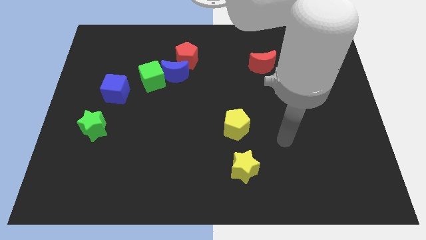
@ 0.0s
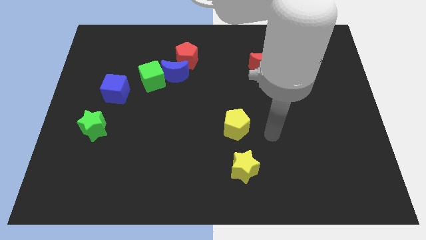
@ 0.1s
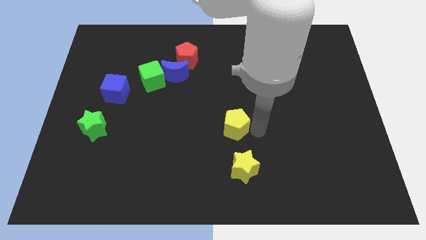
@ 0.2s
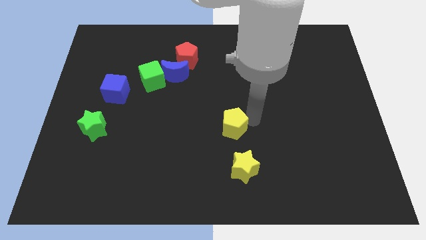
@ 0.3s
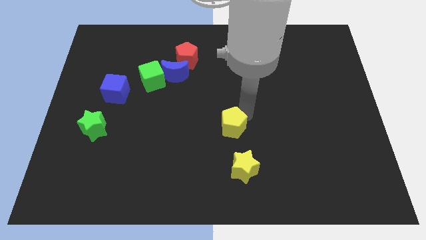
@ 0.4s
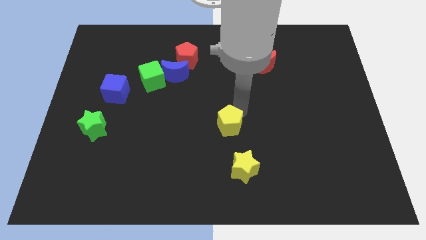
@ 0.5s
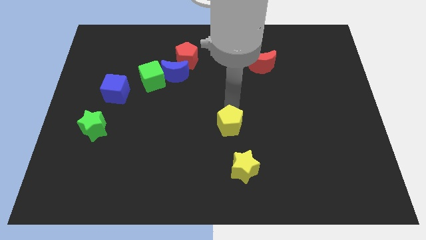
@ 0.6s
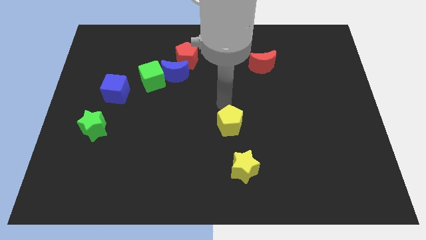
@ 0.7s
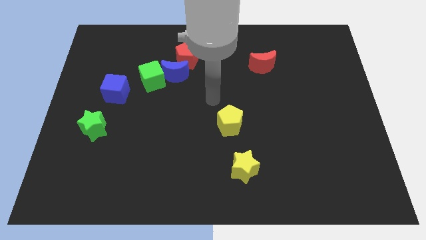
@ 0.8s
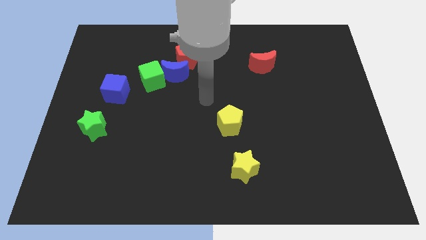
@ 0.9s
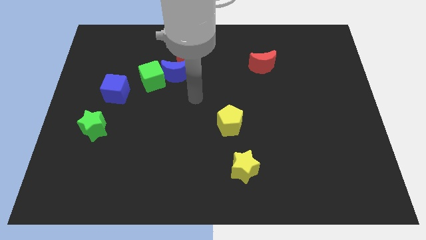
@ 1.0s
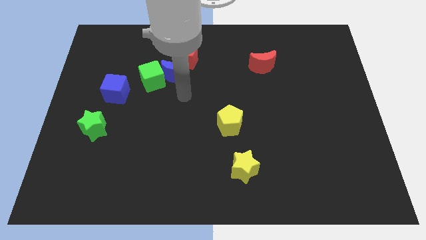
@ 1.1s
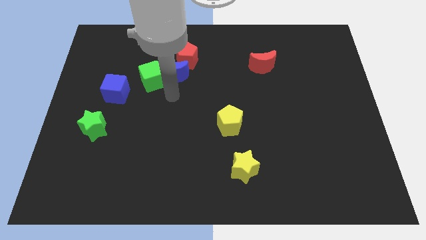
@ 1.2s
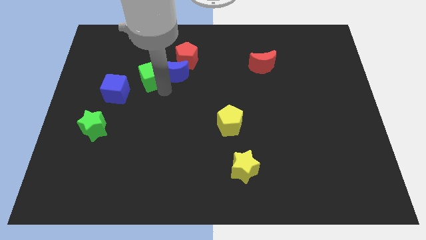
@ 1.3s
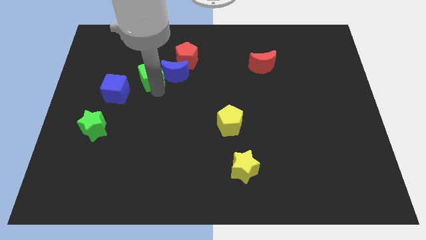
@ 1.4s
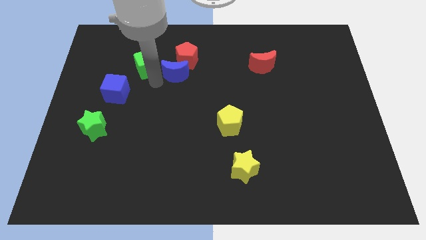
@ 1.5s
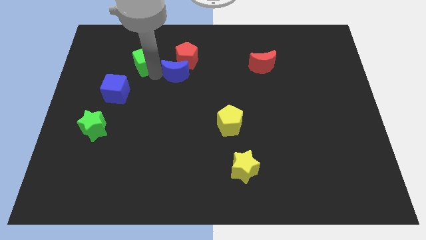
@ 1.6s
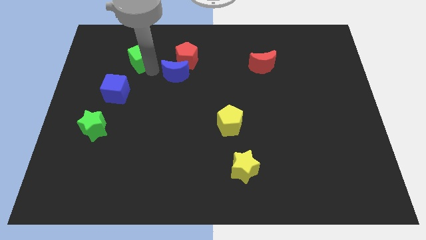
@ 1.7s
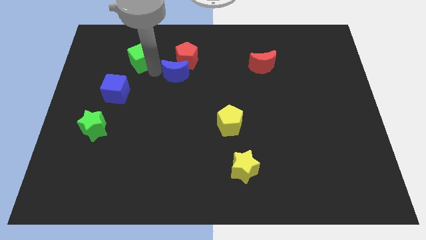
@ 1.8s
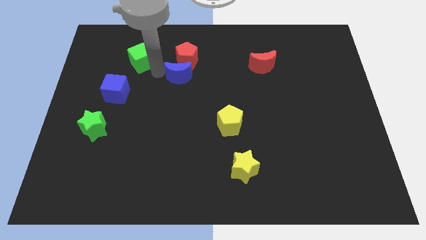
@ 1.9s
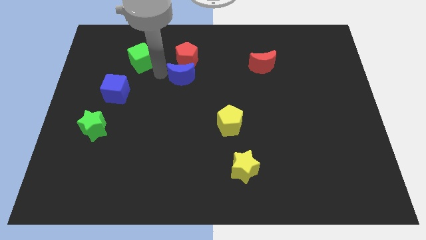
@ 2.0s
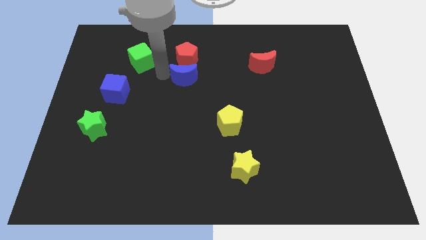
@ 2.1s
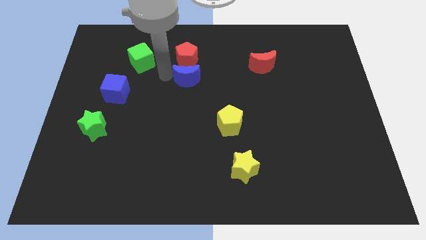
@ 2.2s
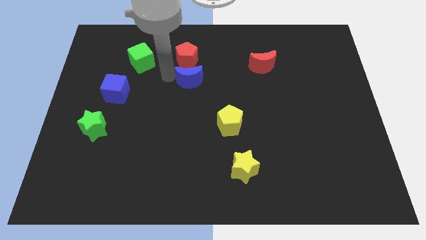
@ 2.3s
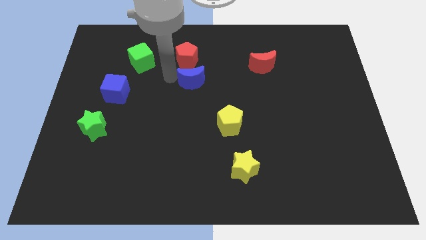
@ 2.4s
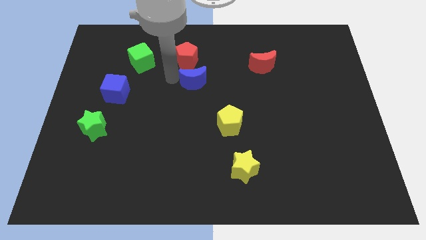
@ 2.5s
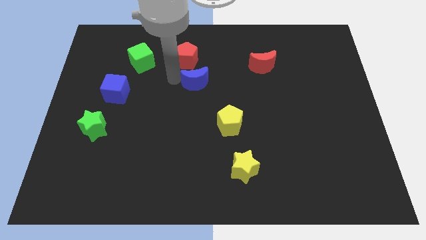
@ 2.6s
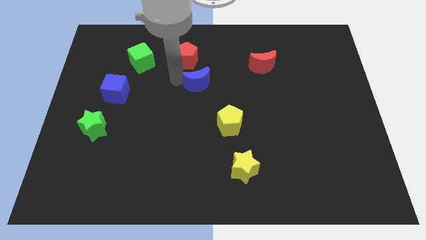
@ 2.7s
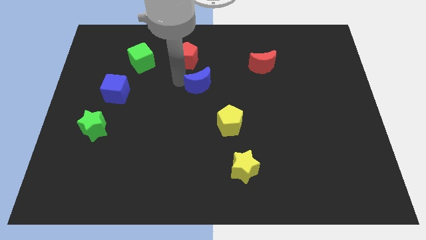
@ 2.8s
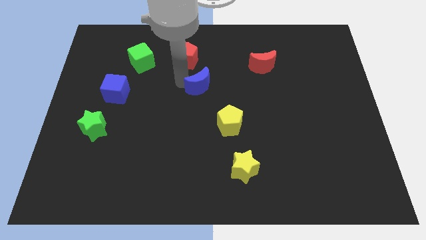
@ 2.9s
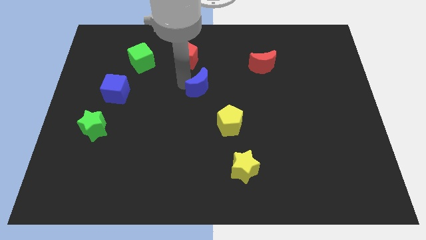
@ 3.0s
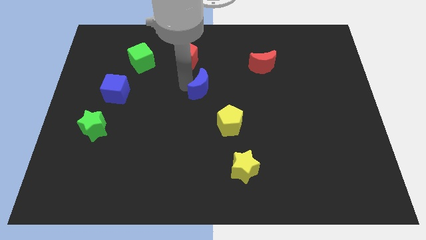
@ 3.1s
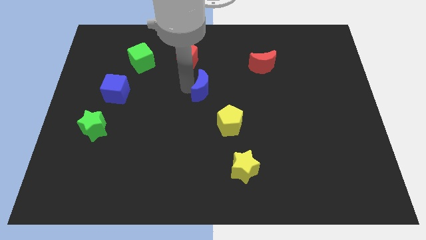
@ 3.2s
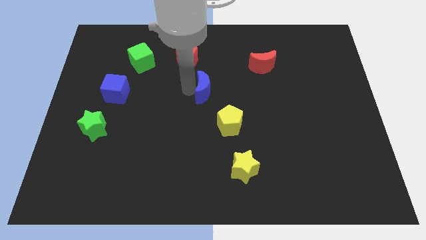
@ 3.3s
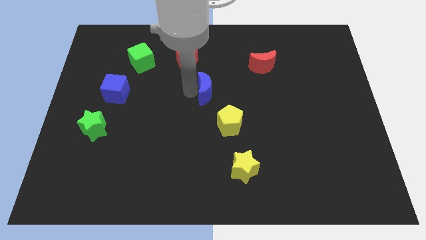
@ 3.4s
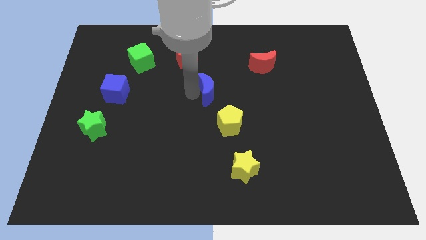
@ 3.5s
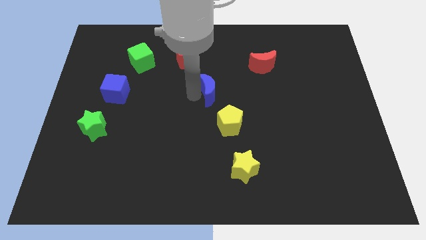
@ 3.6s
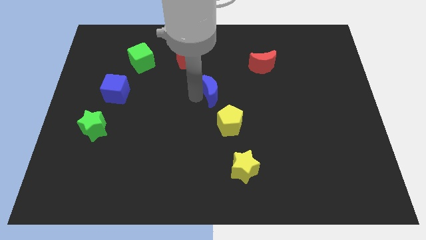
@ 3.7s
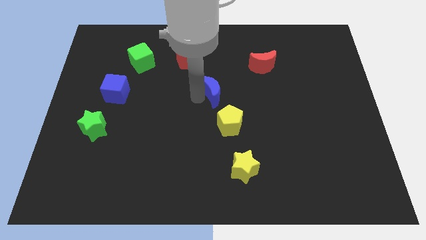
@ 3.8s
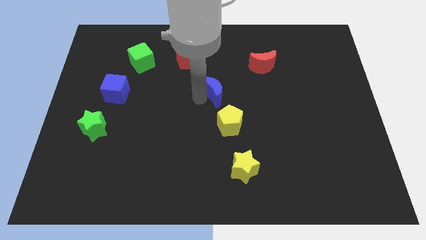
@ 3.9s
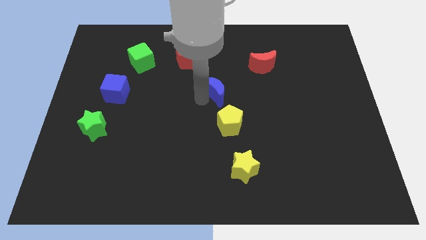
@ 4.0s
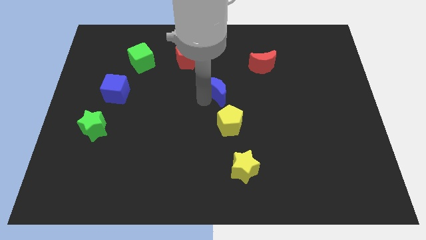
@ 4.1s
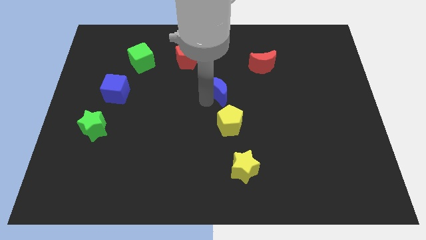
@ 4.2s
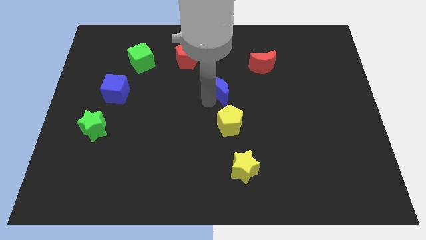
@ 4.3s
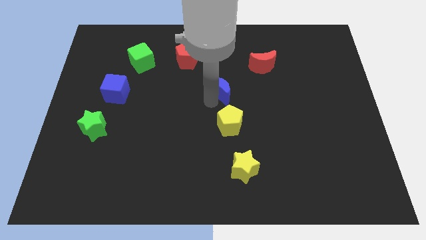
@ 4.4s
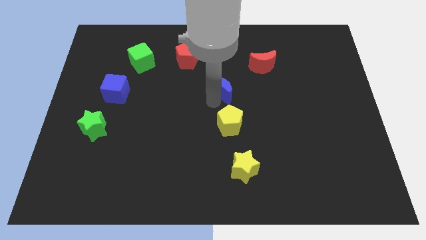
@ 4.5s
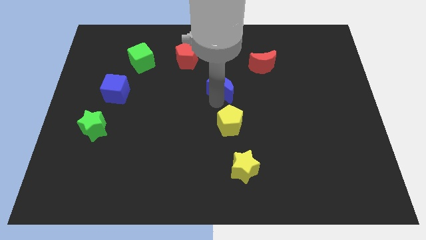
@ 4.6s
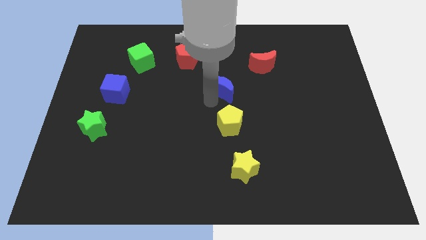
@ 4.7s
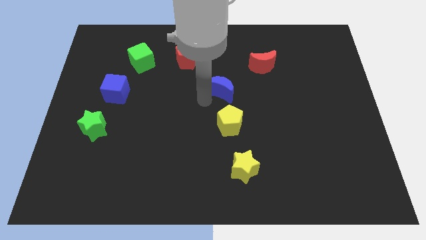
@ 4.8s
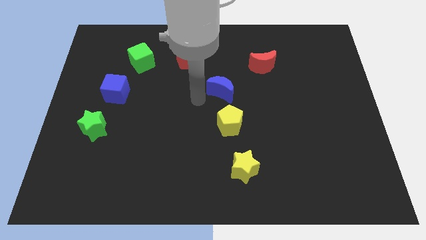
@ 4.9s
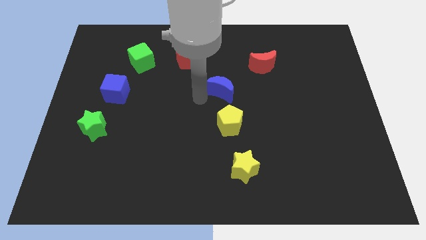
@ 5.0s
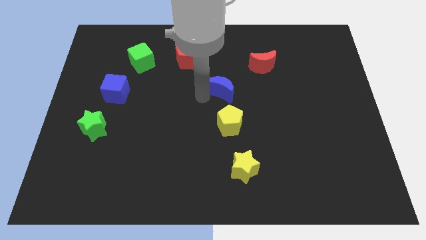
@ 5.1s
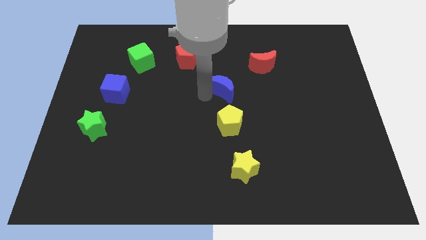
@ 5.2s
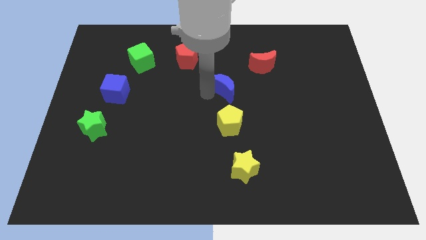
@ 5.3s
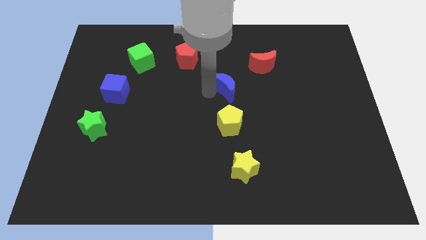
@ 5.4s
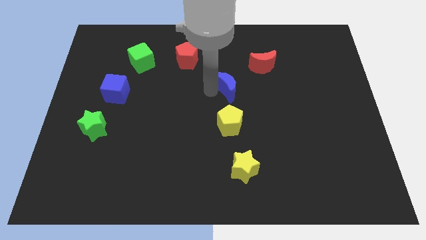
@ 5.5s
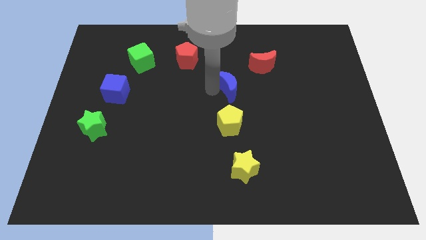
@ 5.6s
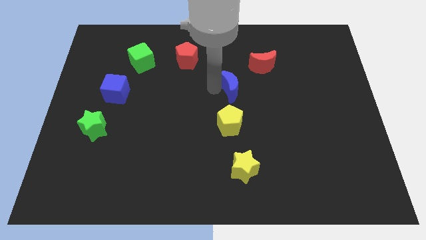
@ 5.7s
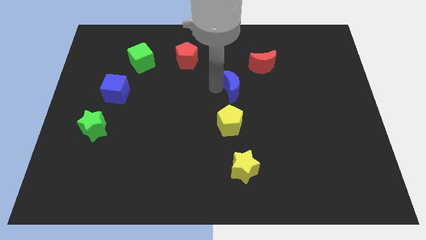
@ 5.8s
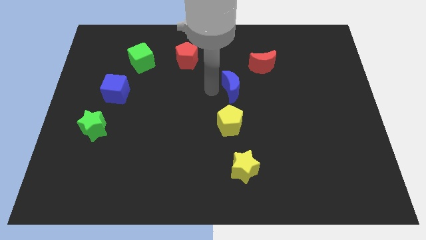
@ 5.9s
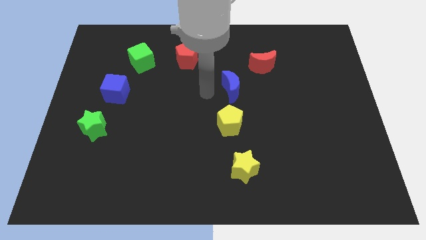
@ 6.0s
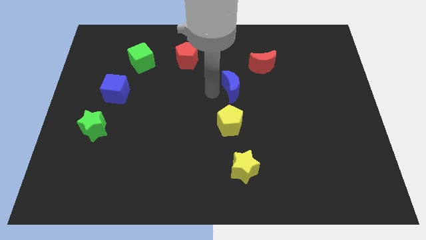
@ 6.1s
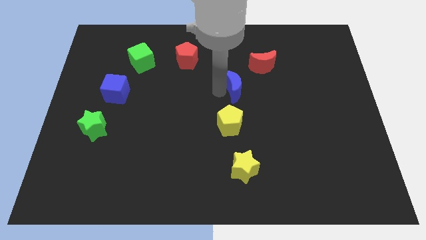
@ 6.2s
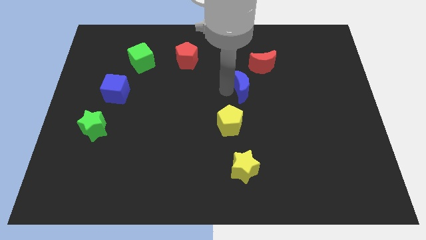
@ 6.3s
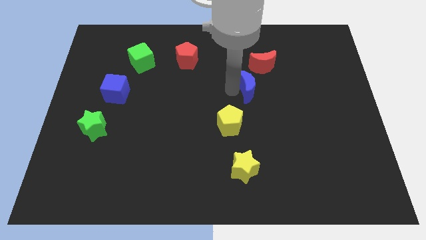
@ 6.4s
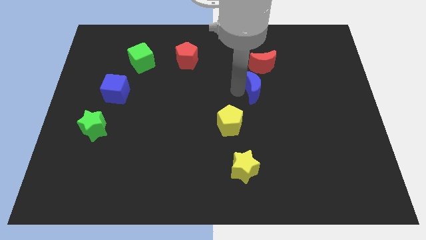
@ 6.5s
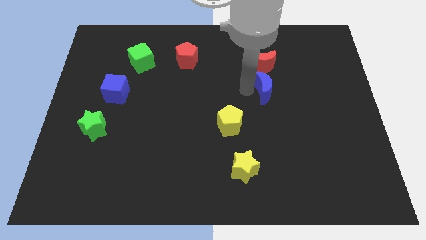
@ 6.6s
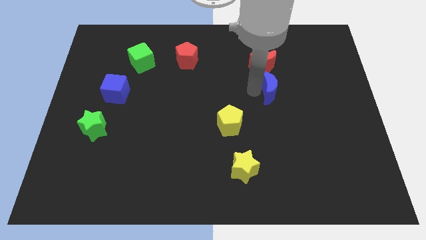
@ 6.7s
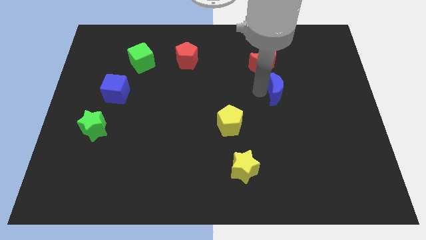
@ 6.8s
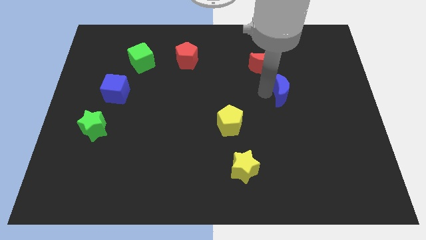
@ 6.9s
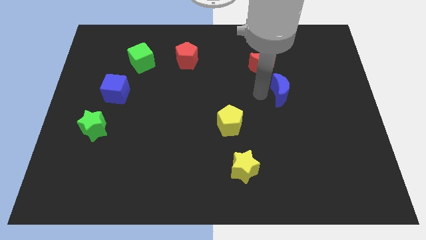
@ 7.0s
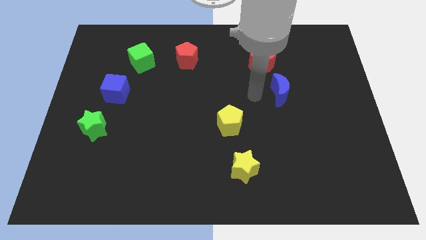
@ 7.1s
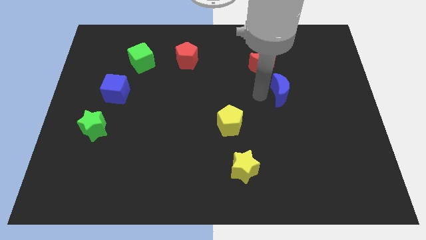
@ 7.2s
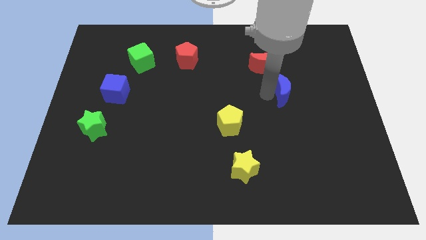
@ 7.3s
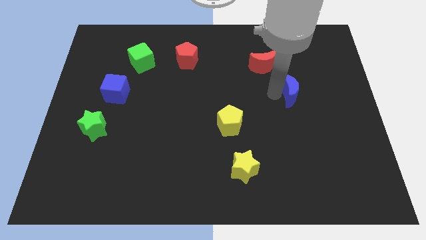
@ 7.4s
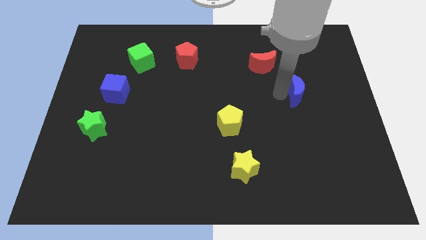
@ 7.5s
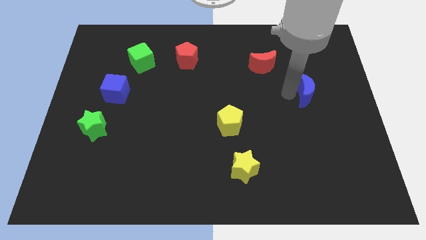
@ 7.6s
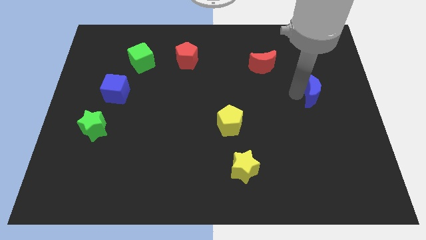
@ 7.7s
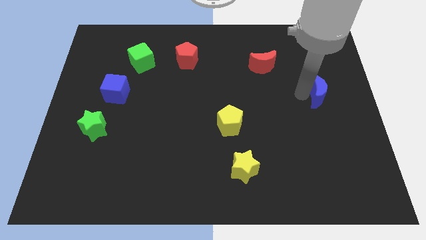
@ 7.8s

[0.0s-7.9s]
push the blue moon to the center right

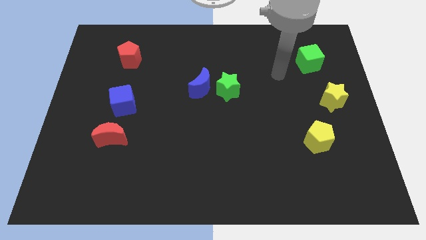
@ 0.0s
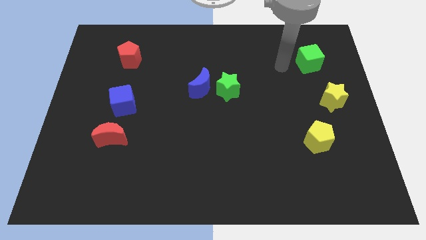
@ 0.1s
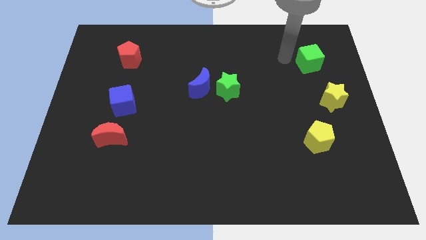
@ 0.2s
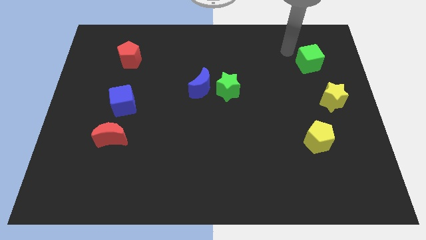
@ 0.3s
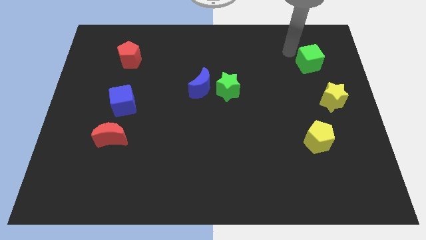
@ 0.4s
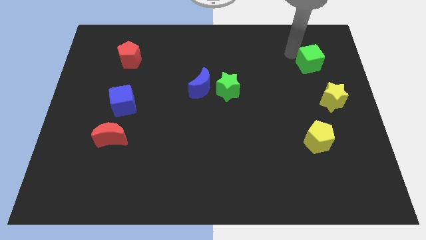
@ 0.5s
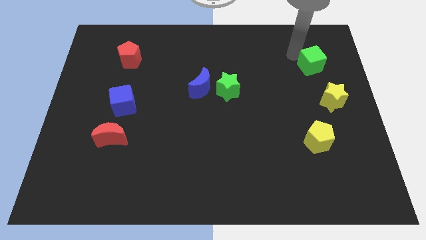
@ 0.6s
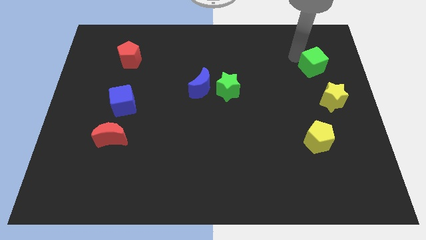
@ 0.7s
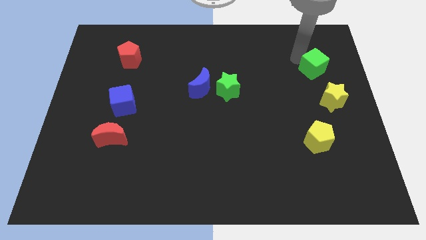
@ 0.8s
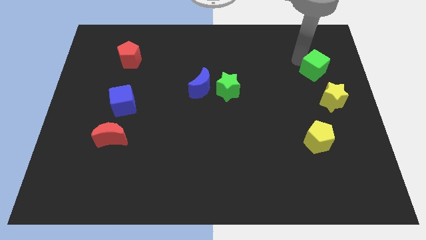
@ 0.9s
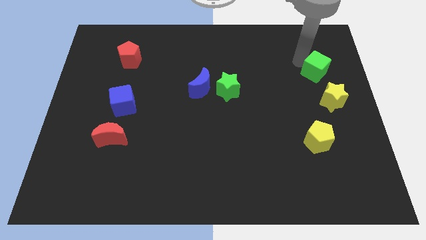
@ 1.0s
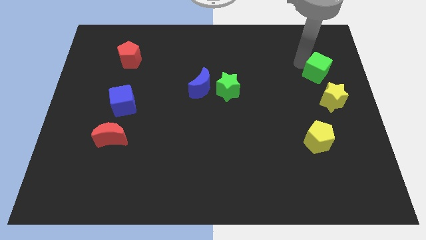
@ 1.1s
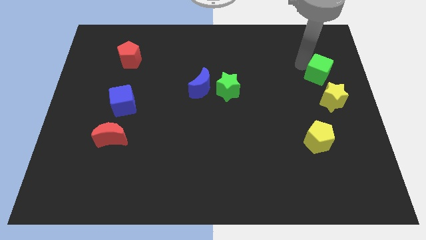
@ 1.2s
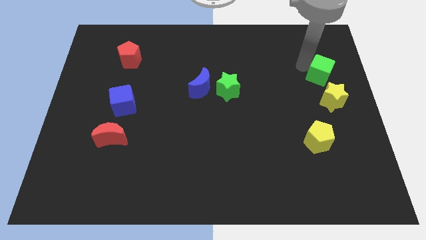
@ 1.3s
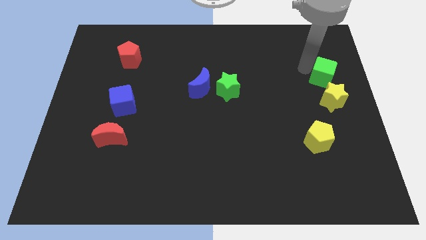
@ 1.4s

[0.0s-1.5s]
put the green cube to the right side of the board
